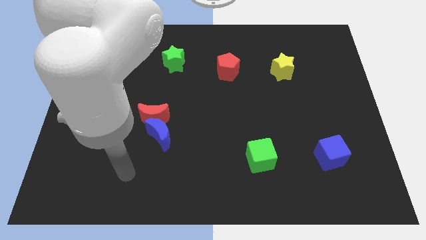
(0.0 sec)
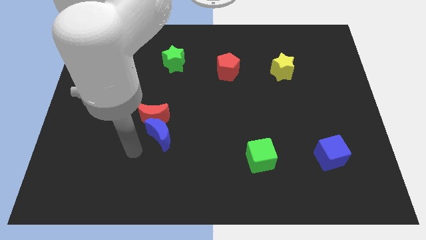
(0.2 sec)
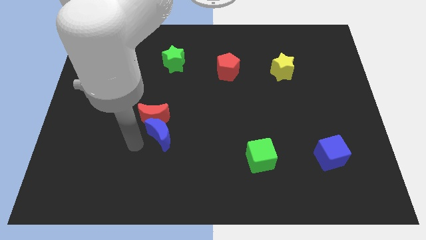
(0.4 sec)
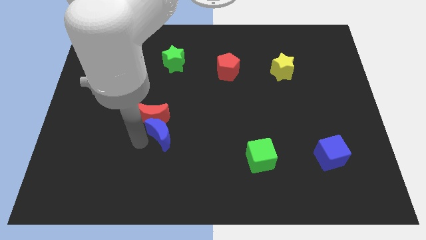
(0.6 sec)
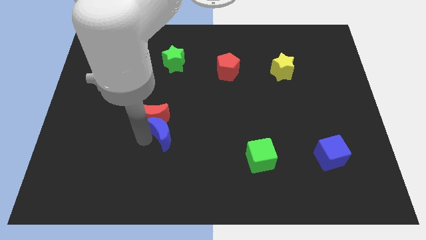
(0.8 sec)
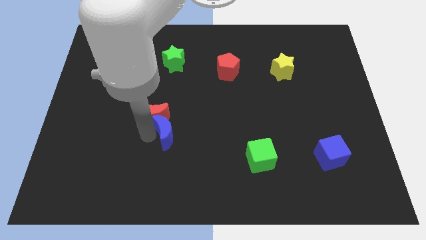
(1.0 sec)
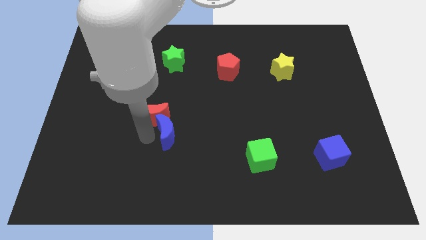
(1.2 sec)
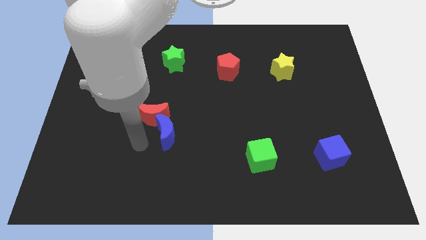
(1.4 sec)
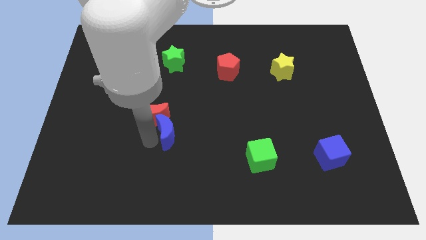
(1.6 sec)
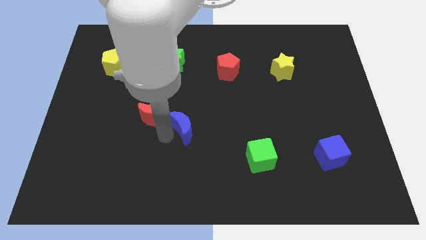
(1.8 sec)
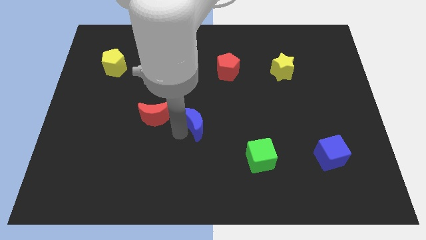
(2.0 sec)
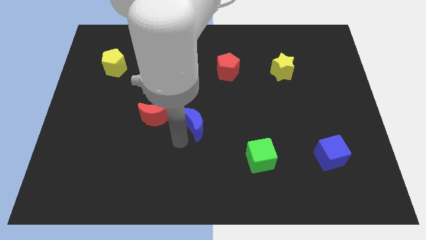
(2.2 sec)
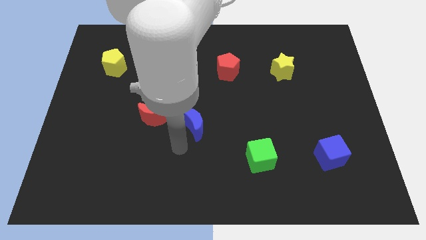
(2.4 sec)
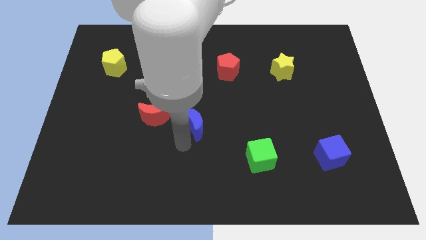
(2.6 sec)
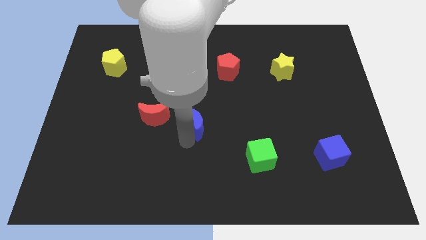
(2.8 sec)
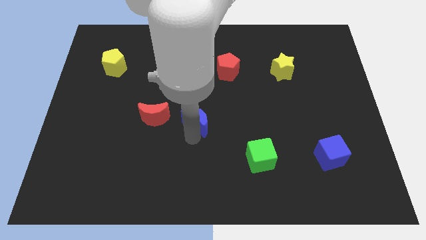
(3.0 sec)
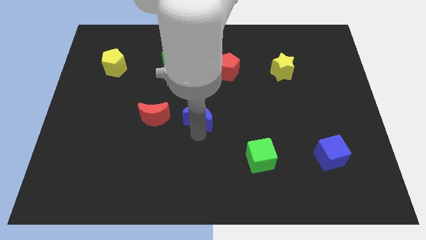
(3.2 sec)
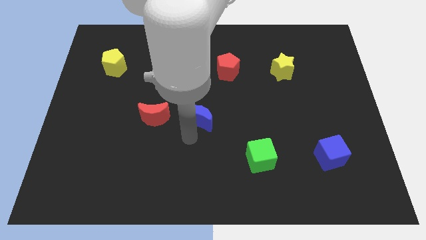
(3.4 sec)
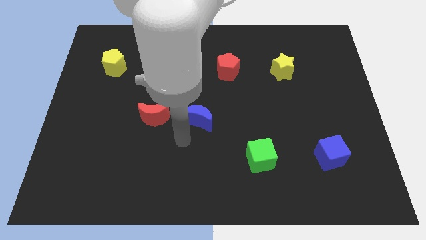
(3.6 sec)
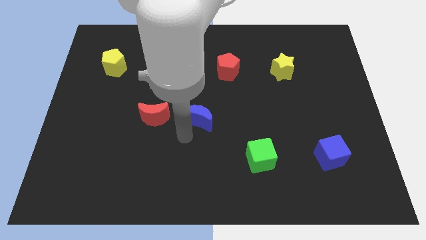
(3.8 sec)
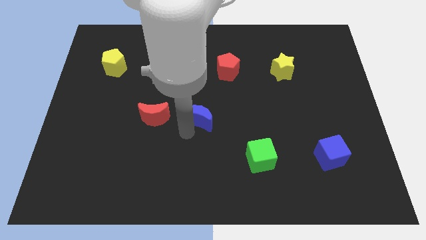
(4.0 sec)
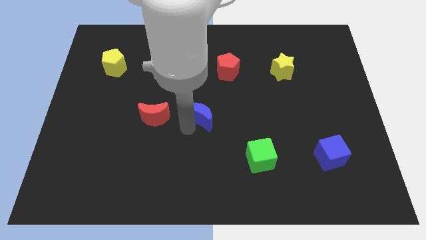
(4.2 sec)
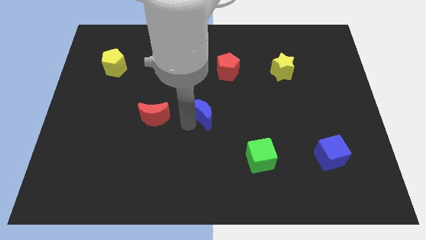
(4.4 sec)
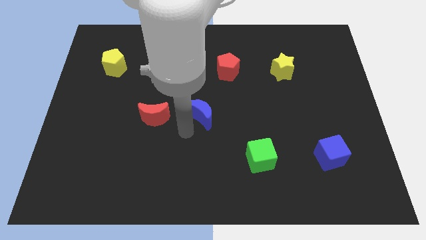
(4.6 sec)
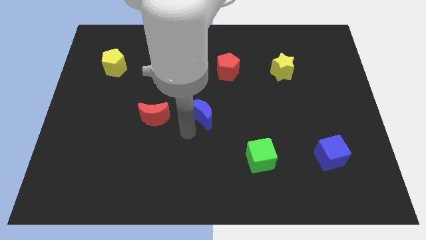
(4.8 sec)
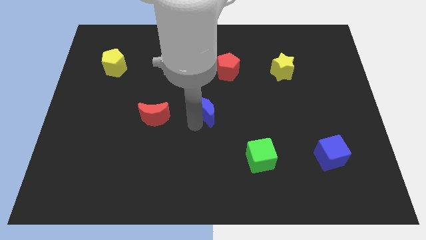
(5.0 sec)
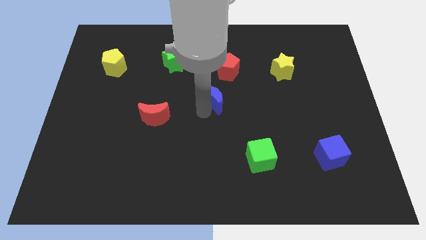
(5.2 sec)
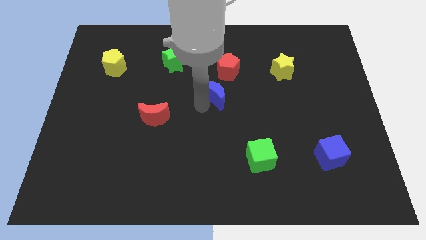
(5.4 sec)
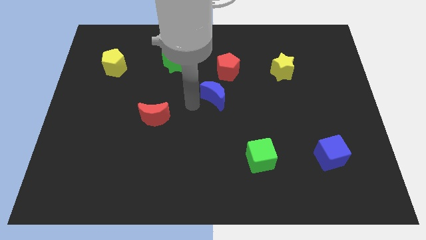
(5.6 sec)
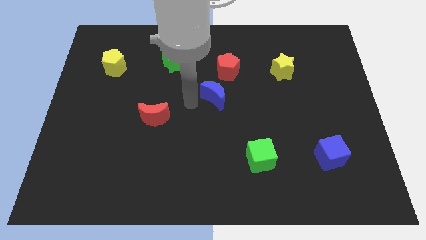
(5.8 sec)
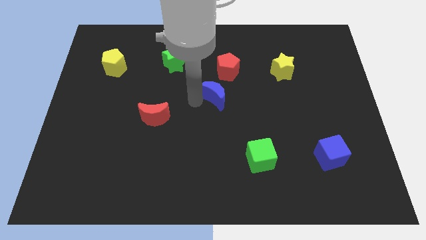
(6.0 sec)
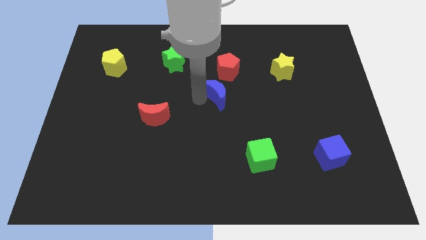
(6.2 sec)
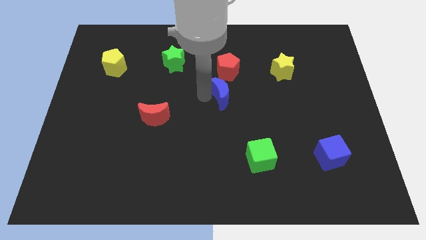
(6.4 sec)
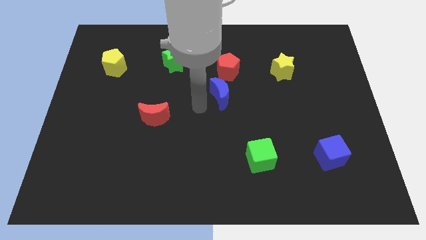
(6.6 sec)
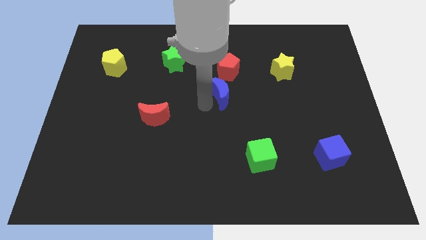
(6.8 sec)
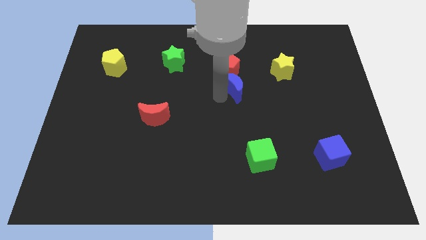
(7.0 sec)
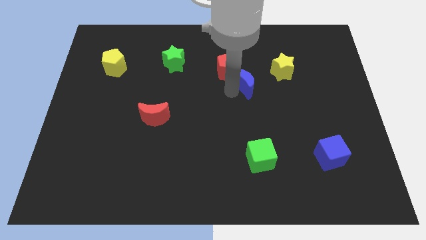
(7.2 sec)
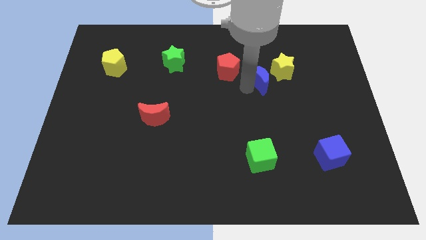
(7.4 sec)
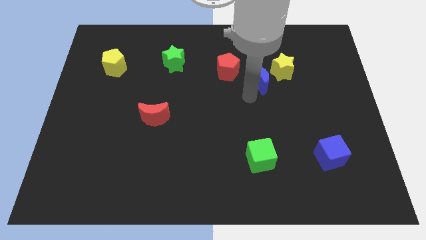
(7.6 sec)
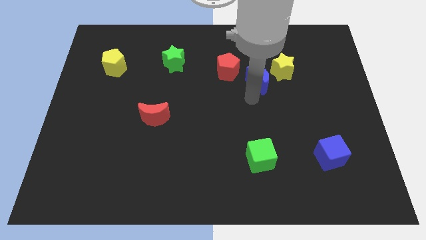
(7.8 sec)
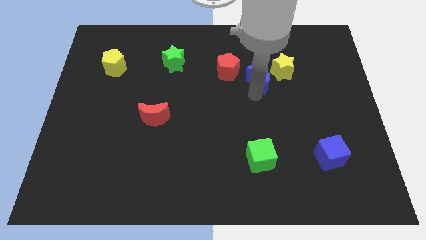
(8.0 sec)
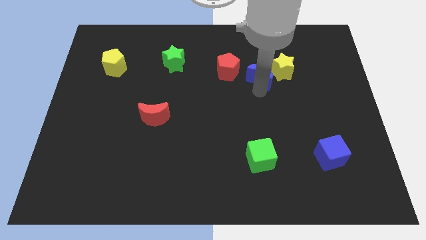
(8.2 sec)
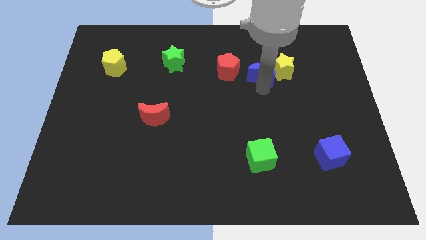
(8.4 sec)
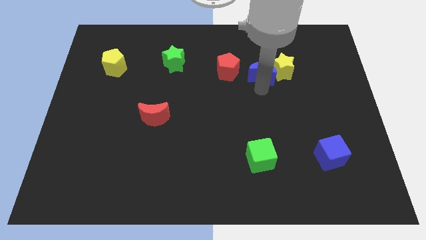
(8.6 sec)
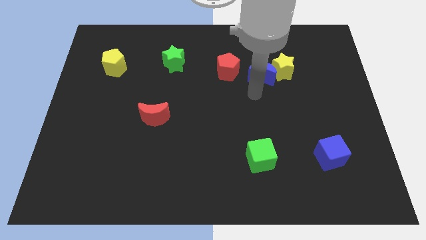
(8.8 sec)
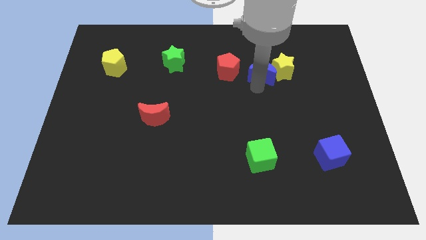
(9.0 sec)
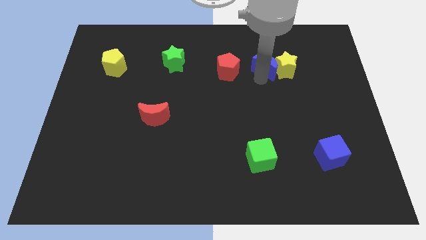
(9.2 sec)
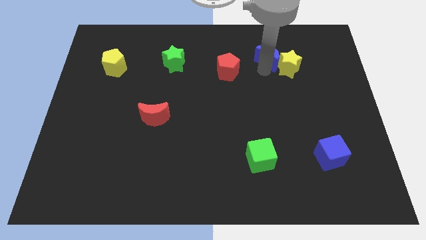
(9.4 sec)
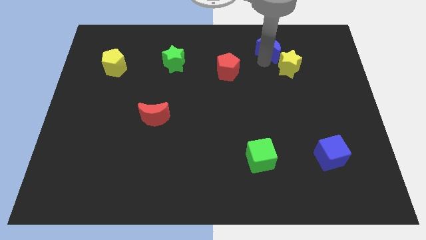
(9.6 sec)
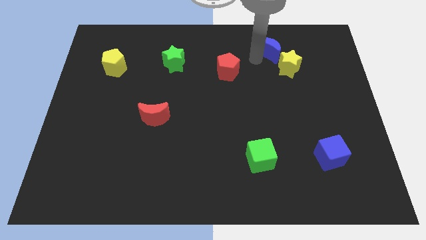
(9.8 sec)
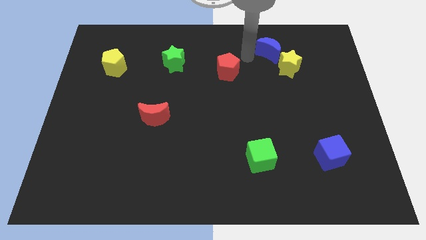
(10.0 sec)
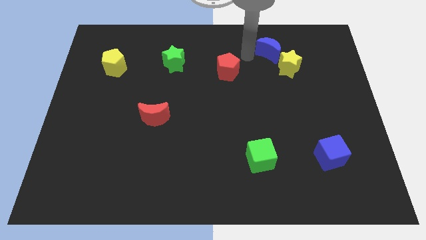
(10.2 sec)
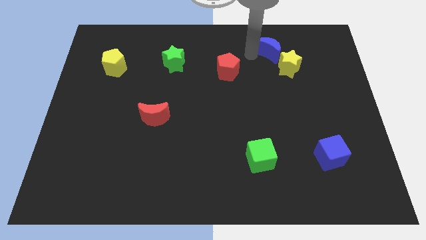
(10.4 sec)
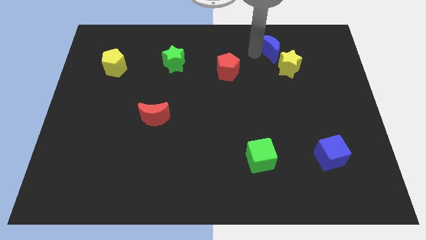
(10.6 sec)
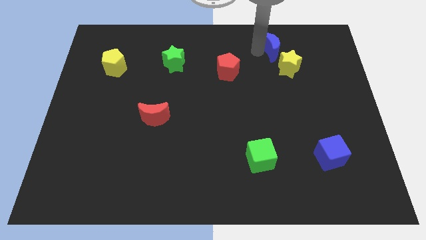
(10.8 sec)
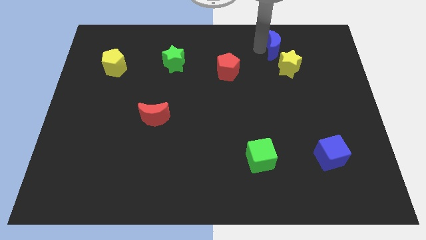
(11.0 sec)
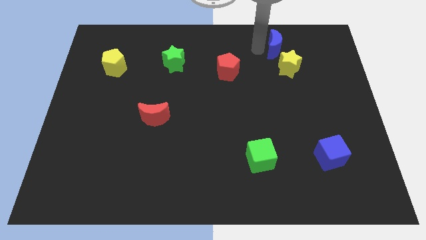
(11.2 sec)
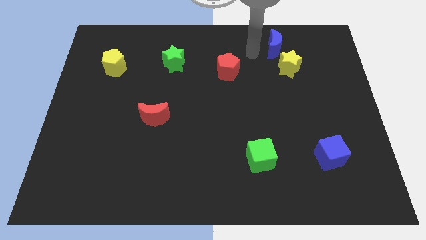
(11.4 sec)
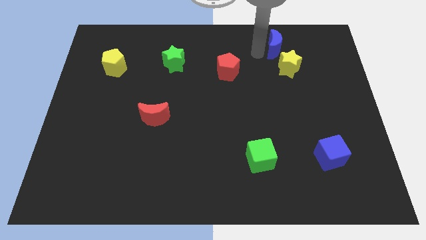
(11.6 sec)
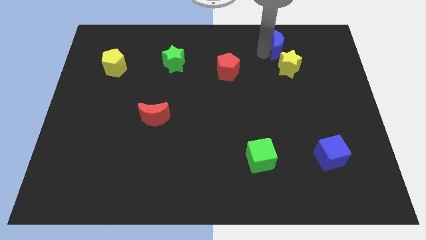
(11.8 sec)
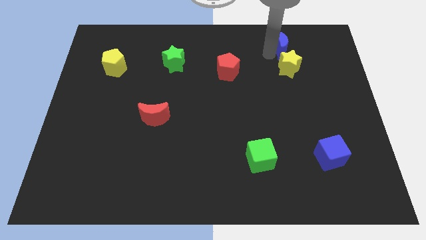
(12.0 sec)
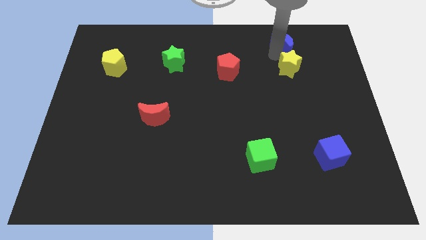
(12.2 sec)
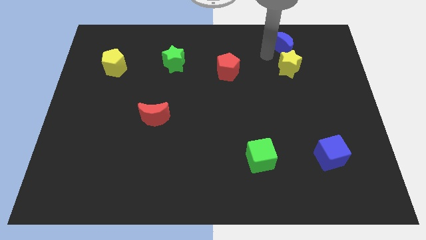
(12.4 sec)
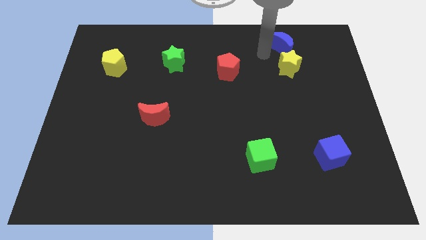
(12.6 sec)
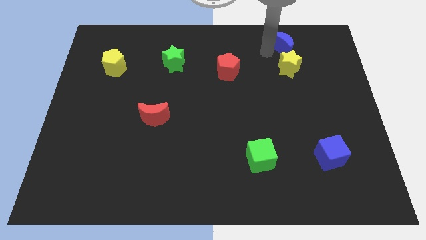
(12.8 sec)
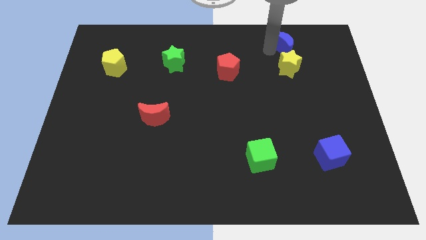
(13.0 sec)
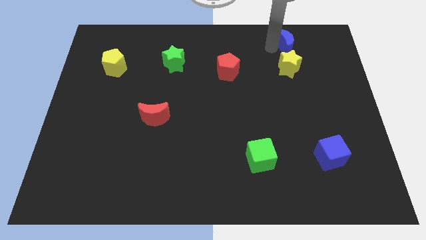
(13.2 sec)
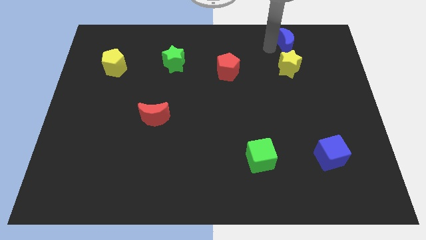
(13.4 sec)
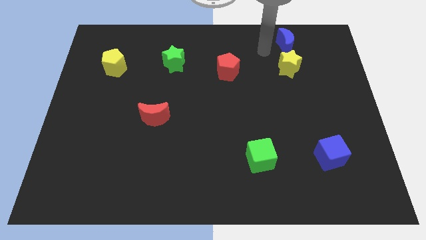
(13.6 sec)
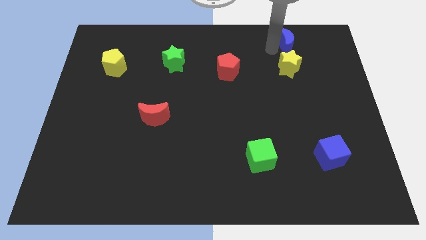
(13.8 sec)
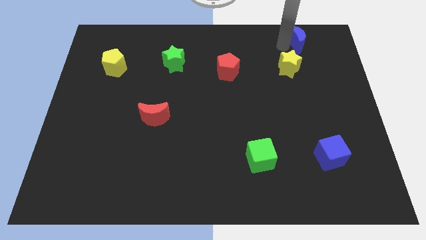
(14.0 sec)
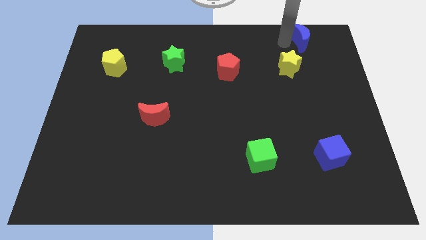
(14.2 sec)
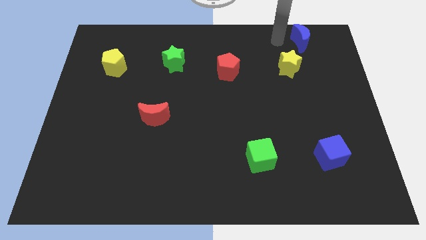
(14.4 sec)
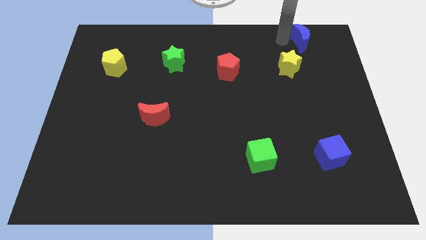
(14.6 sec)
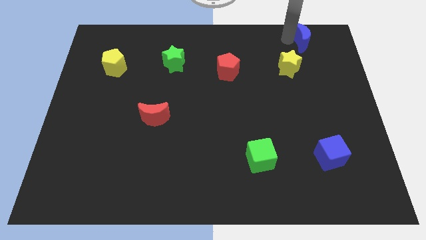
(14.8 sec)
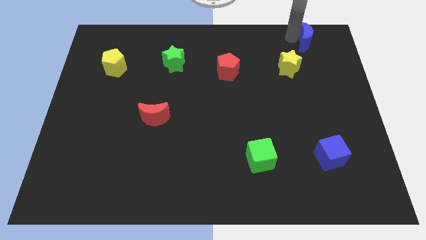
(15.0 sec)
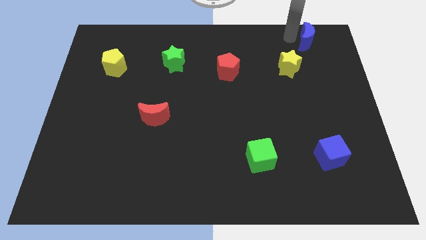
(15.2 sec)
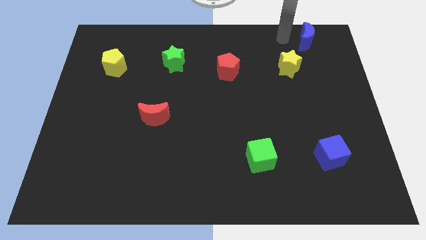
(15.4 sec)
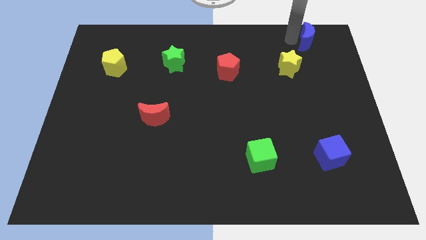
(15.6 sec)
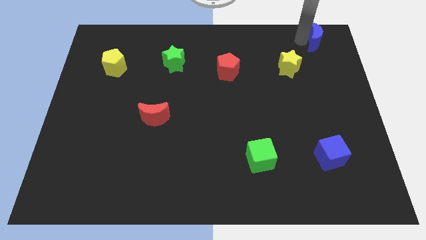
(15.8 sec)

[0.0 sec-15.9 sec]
put the blue moon to the top right
